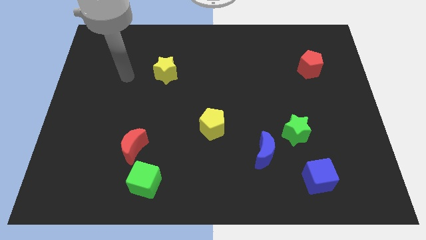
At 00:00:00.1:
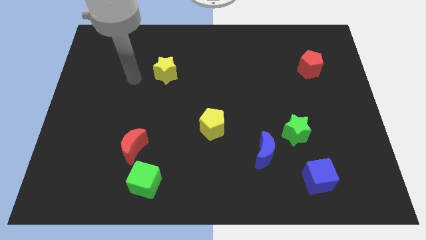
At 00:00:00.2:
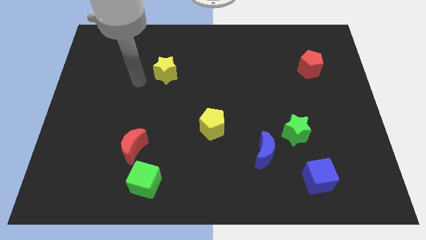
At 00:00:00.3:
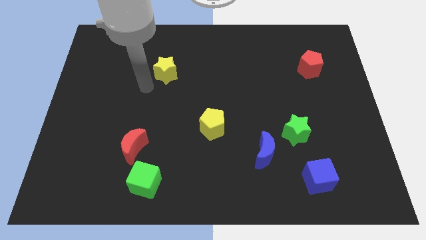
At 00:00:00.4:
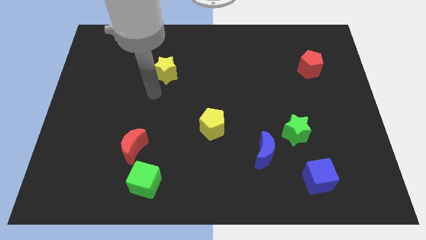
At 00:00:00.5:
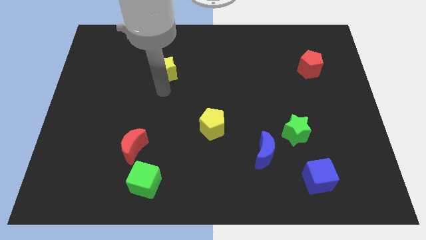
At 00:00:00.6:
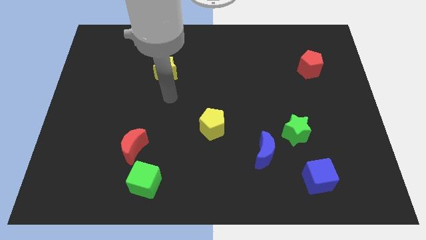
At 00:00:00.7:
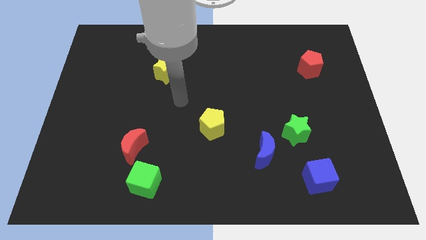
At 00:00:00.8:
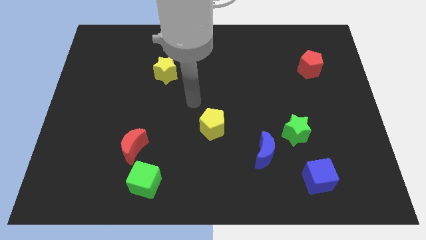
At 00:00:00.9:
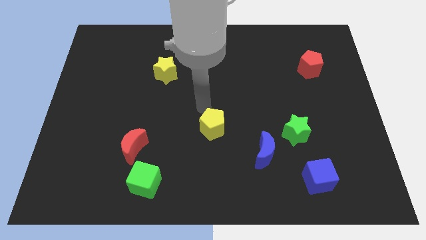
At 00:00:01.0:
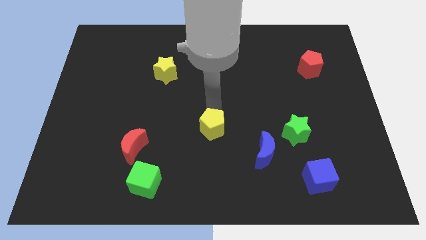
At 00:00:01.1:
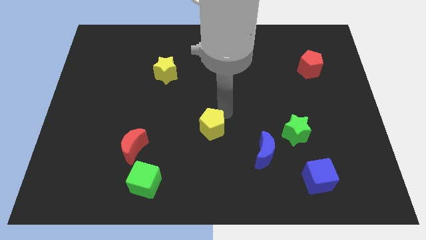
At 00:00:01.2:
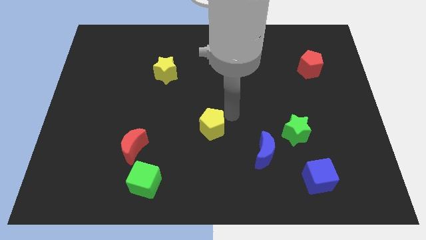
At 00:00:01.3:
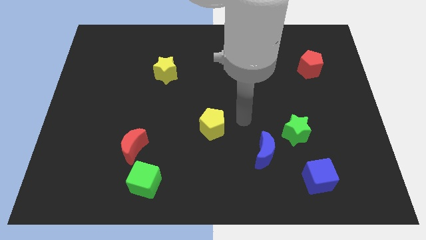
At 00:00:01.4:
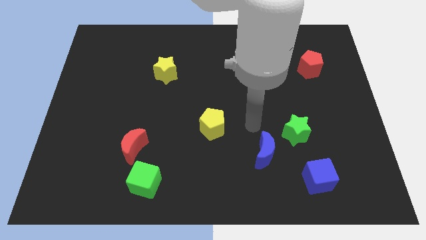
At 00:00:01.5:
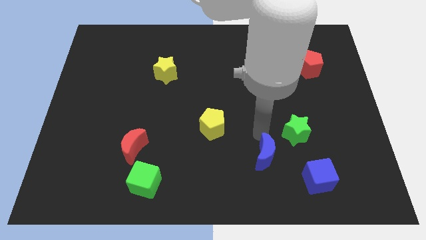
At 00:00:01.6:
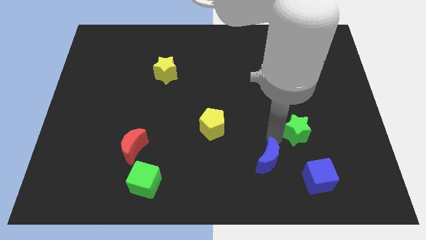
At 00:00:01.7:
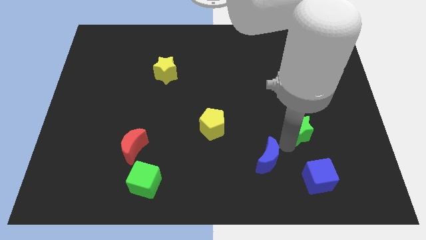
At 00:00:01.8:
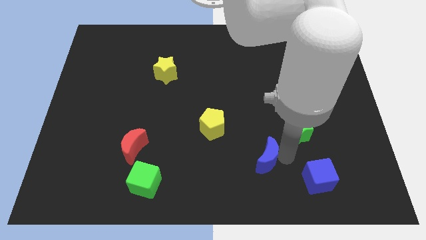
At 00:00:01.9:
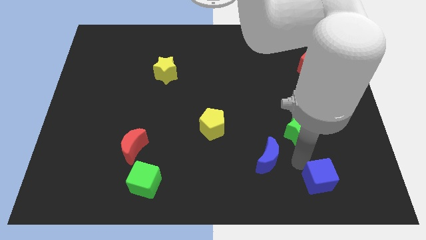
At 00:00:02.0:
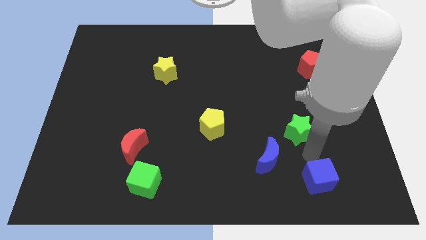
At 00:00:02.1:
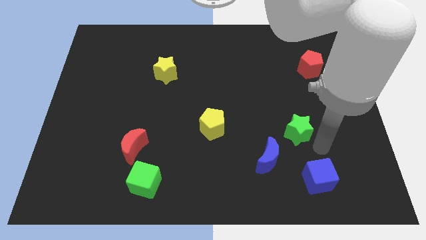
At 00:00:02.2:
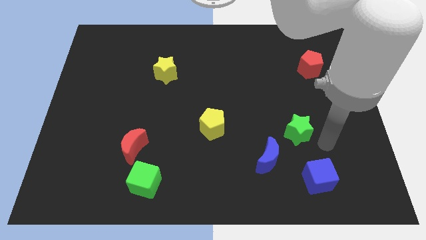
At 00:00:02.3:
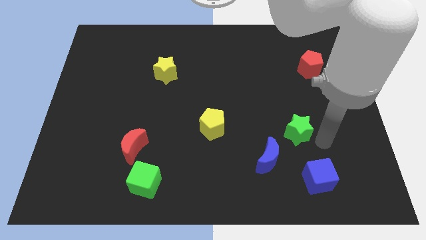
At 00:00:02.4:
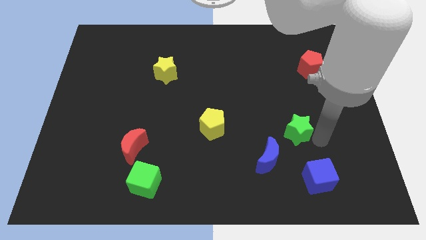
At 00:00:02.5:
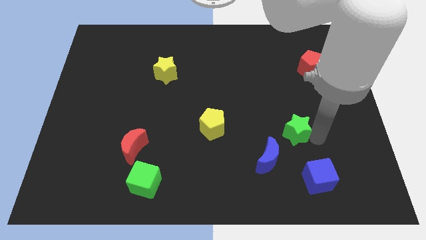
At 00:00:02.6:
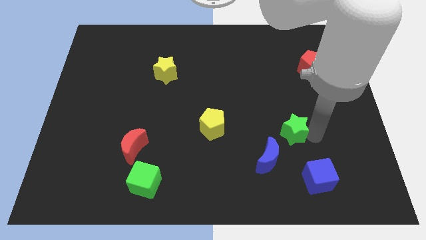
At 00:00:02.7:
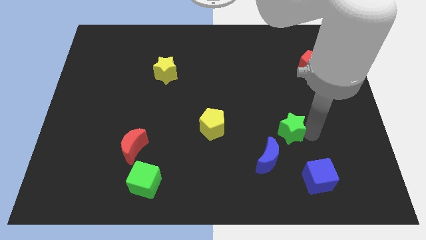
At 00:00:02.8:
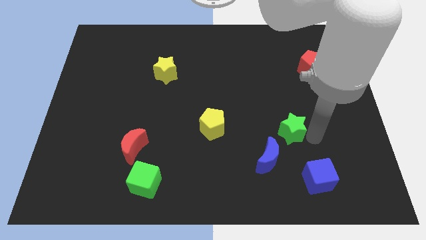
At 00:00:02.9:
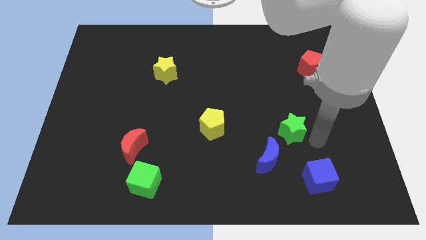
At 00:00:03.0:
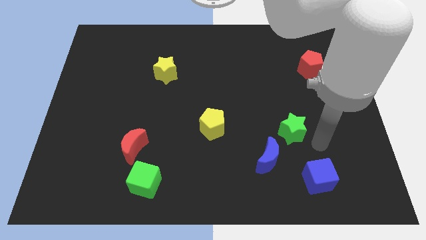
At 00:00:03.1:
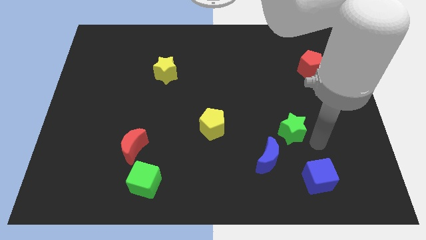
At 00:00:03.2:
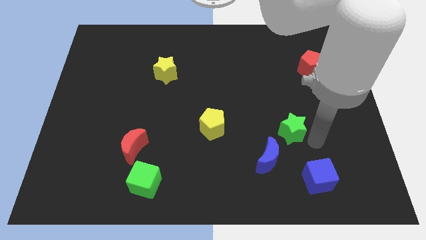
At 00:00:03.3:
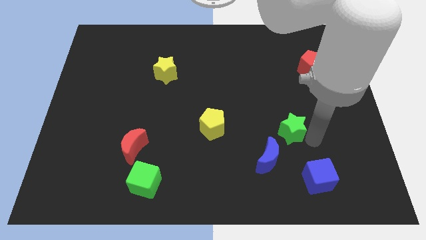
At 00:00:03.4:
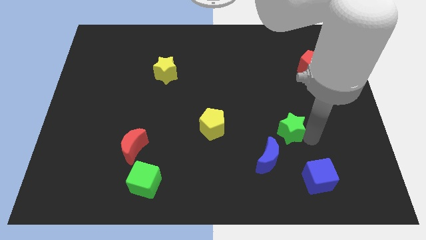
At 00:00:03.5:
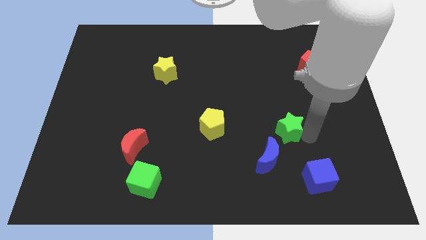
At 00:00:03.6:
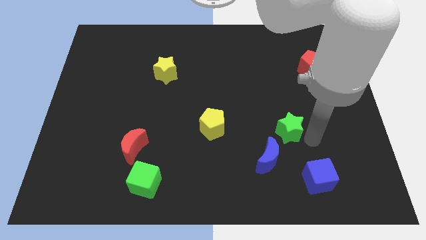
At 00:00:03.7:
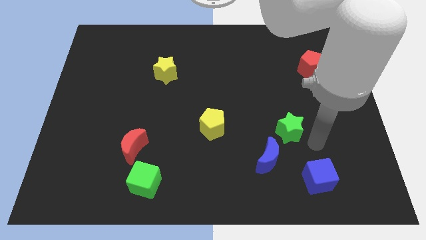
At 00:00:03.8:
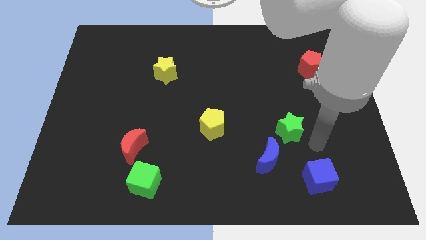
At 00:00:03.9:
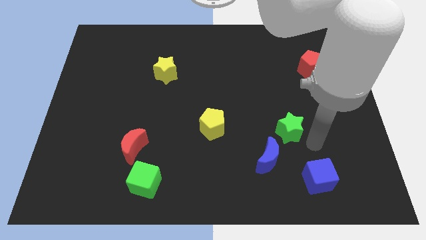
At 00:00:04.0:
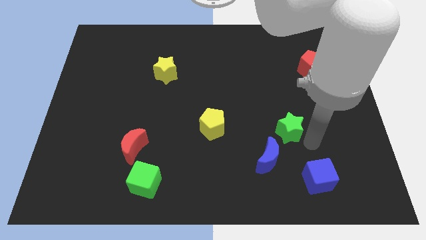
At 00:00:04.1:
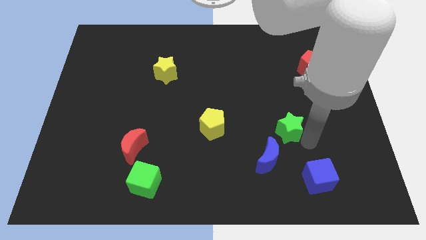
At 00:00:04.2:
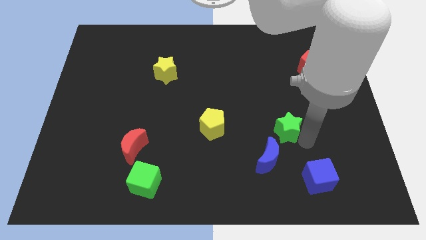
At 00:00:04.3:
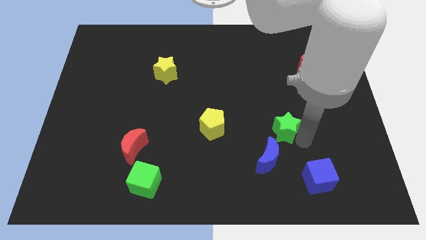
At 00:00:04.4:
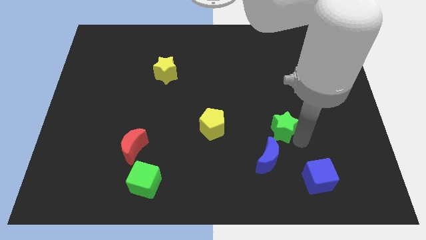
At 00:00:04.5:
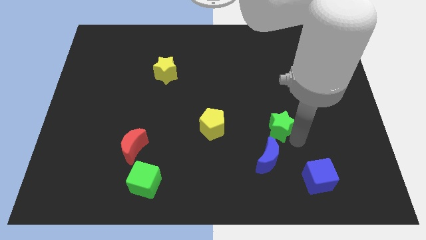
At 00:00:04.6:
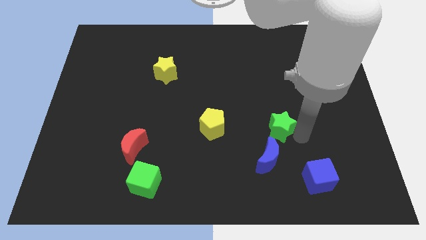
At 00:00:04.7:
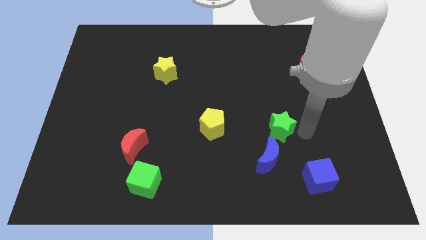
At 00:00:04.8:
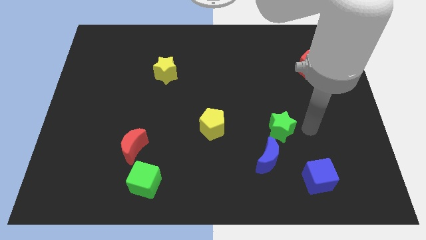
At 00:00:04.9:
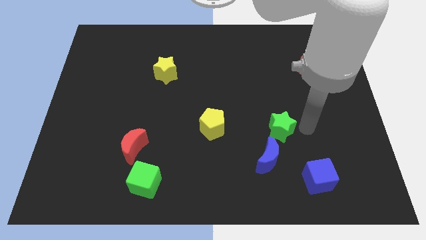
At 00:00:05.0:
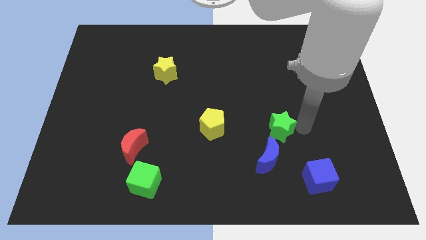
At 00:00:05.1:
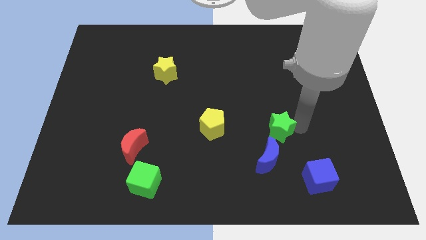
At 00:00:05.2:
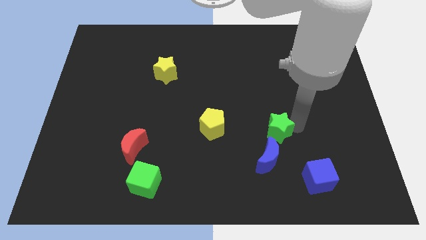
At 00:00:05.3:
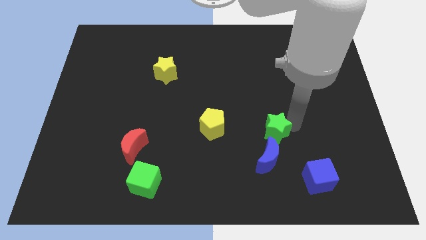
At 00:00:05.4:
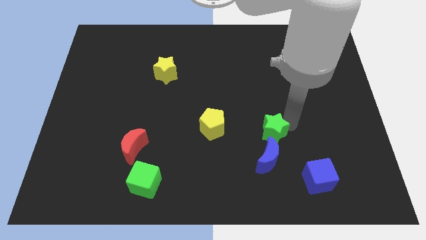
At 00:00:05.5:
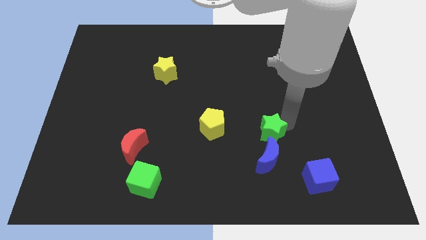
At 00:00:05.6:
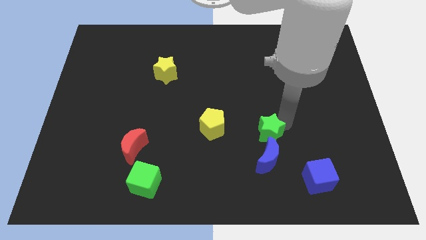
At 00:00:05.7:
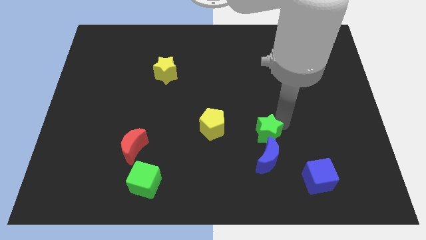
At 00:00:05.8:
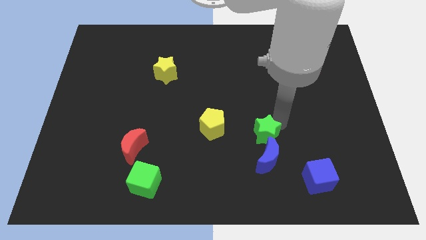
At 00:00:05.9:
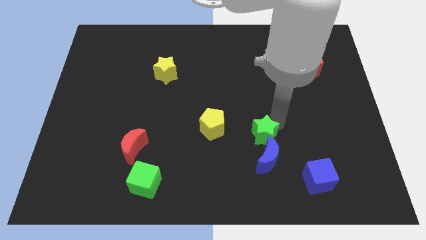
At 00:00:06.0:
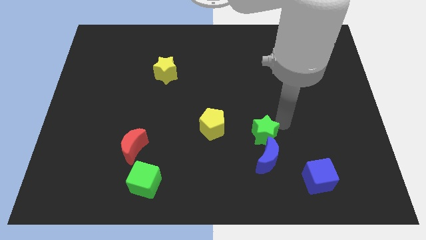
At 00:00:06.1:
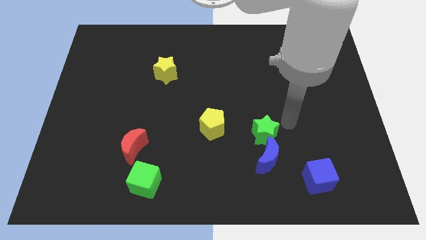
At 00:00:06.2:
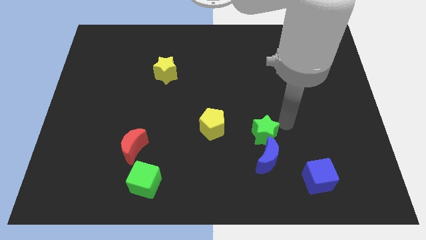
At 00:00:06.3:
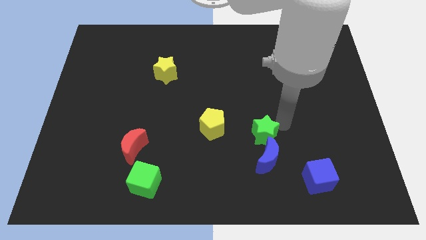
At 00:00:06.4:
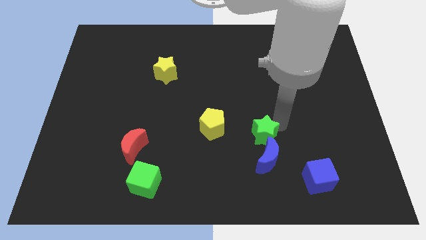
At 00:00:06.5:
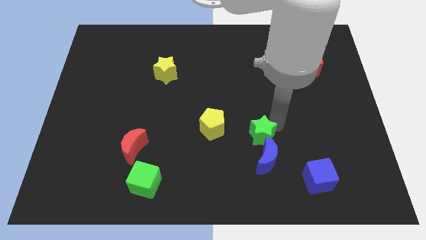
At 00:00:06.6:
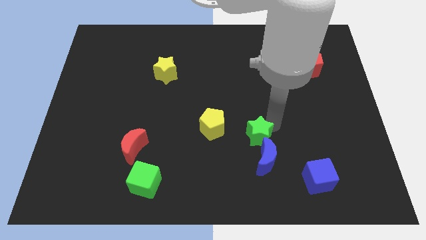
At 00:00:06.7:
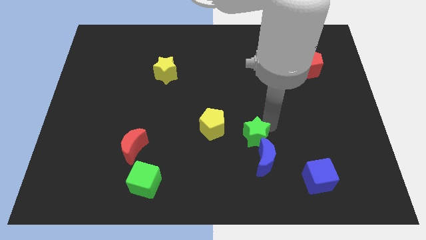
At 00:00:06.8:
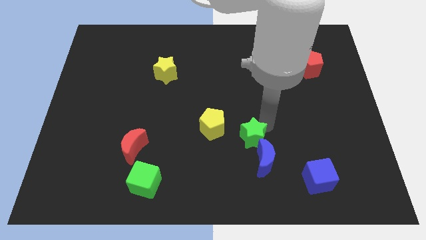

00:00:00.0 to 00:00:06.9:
slide the green star to the bottom right of the yellow pentagon
